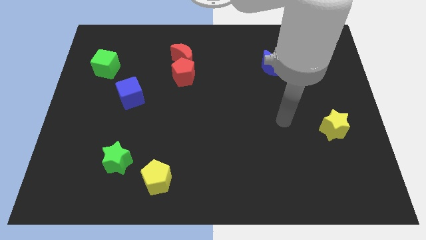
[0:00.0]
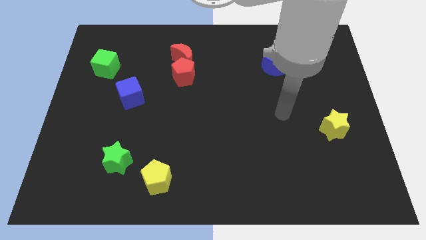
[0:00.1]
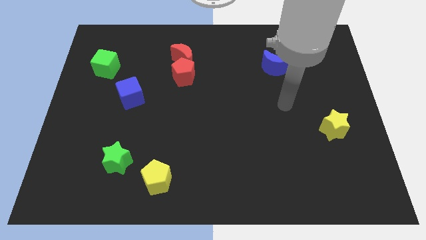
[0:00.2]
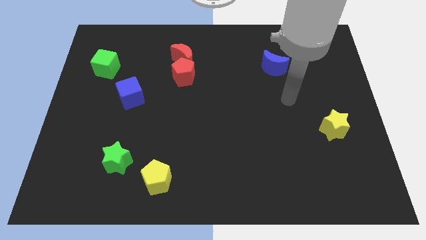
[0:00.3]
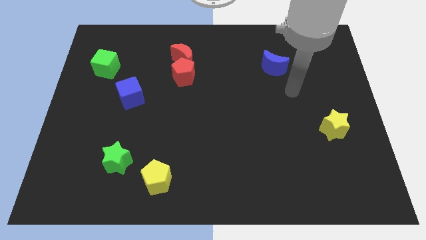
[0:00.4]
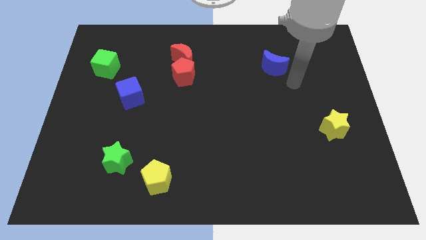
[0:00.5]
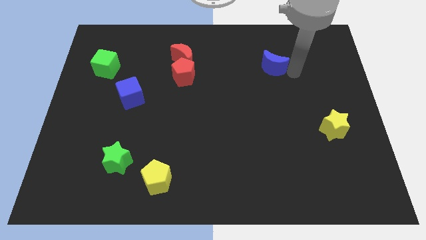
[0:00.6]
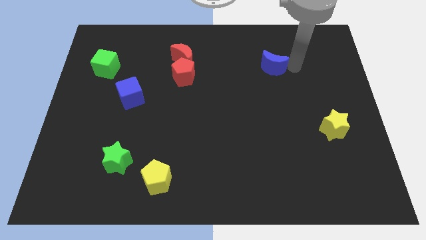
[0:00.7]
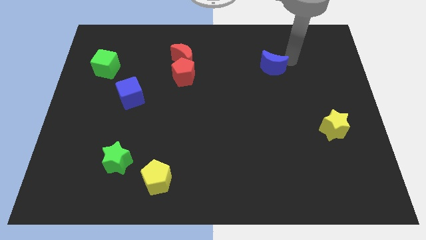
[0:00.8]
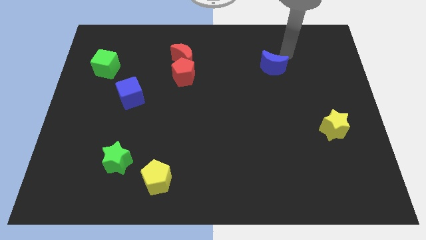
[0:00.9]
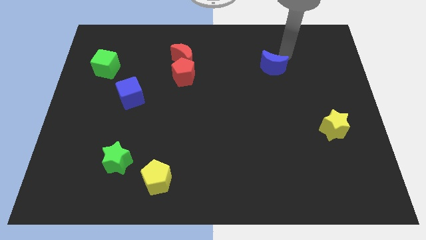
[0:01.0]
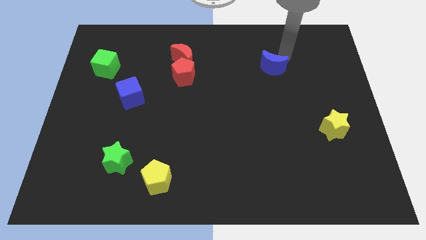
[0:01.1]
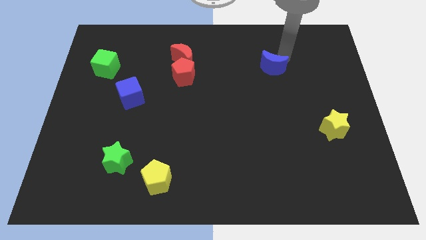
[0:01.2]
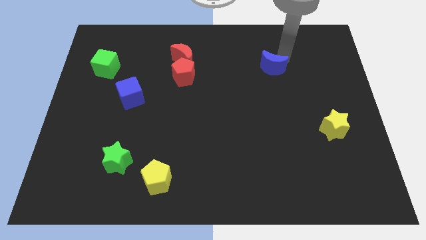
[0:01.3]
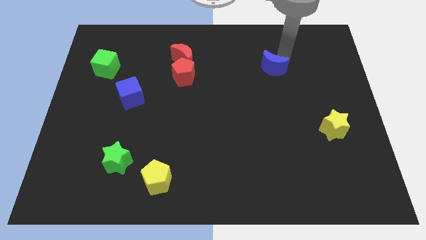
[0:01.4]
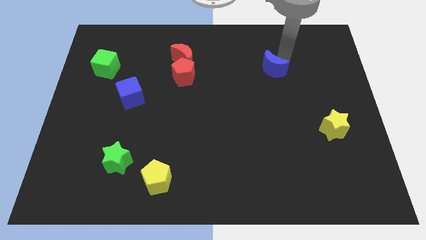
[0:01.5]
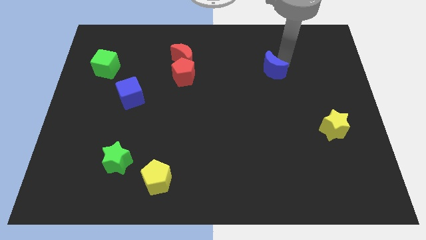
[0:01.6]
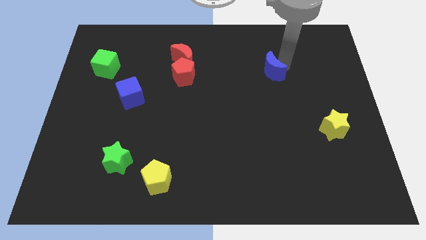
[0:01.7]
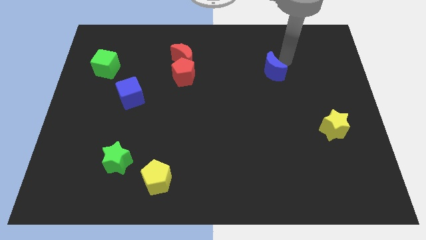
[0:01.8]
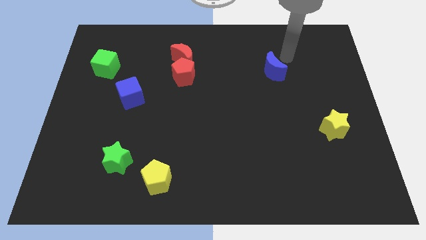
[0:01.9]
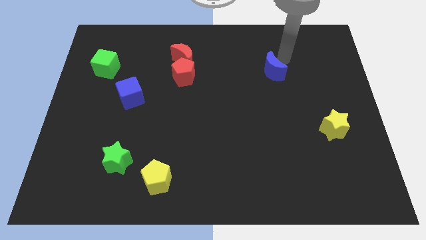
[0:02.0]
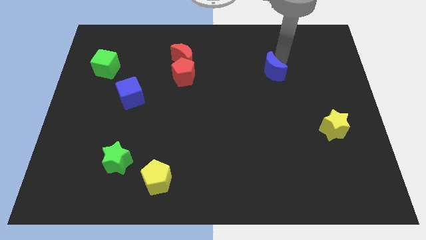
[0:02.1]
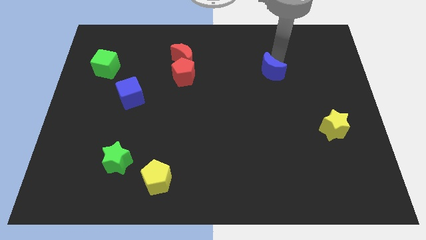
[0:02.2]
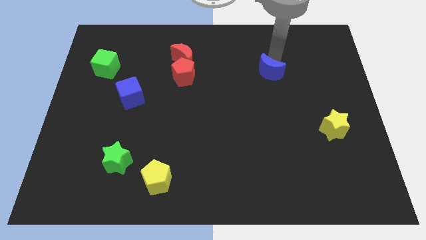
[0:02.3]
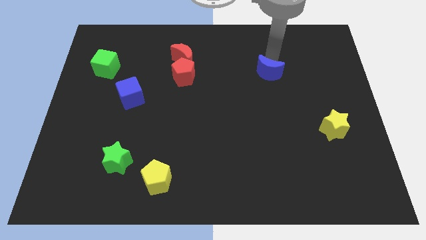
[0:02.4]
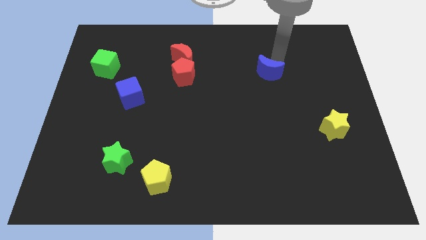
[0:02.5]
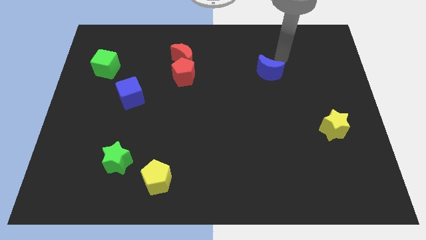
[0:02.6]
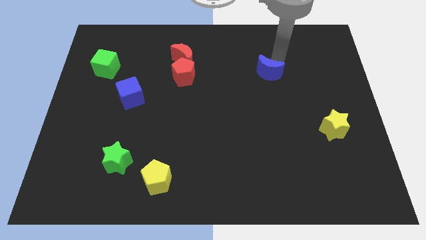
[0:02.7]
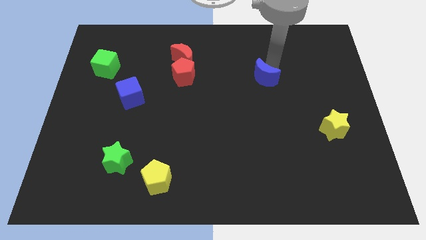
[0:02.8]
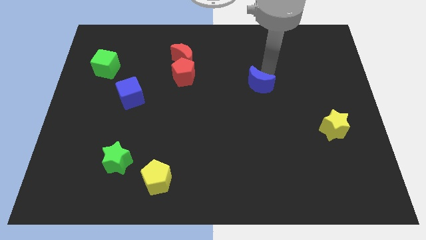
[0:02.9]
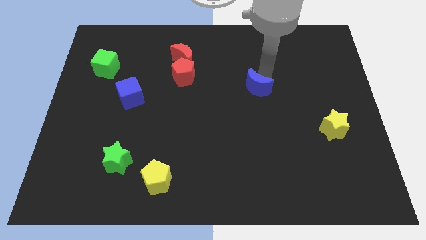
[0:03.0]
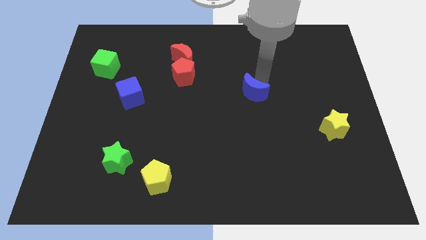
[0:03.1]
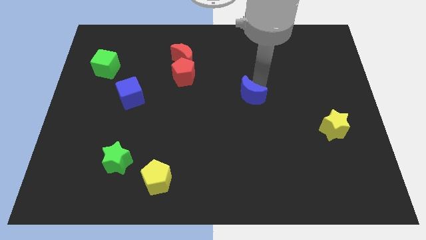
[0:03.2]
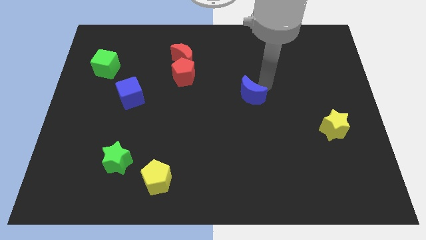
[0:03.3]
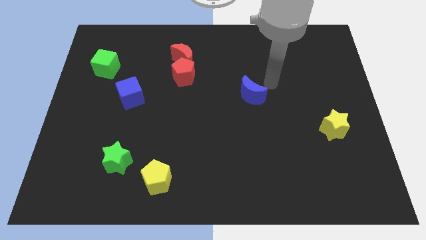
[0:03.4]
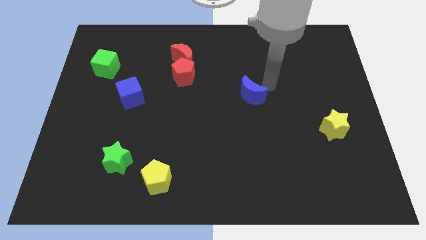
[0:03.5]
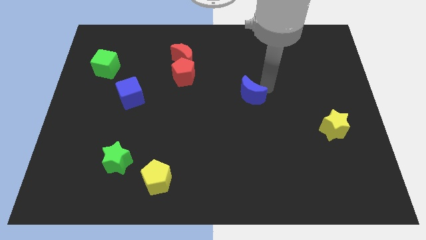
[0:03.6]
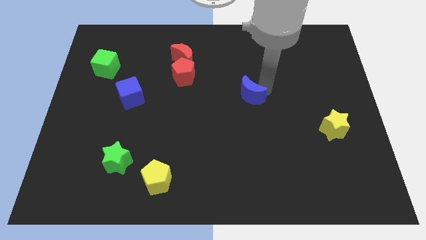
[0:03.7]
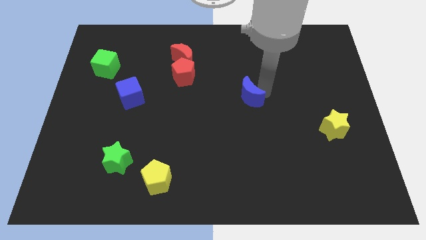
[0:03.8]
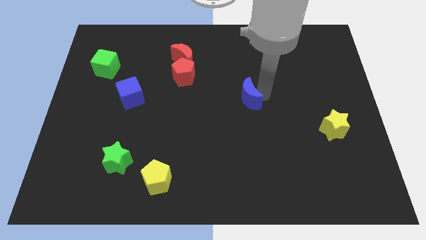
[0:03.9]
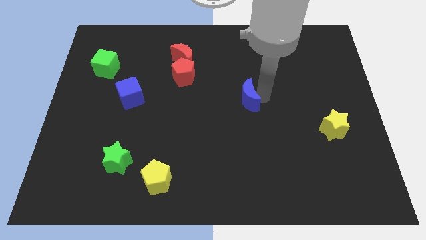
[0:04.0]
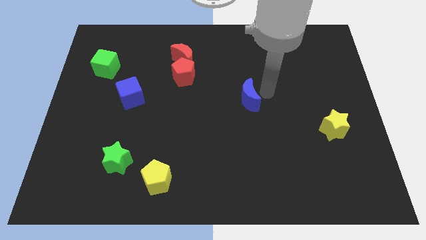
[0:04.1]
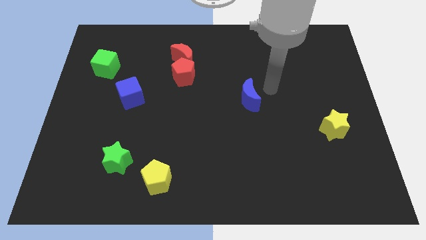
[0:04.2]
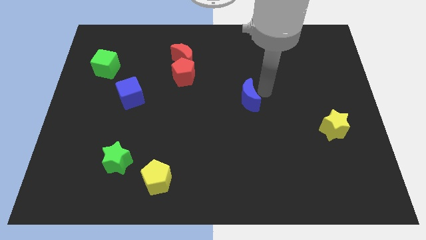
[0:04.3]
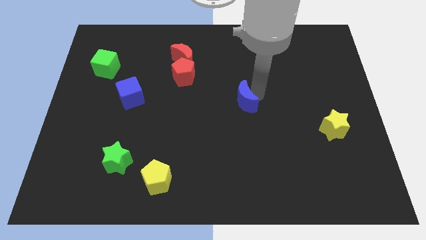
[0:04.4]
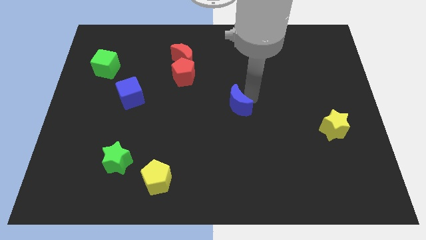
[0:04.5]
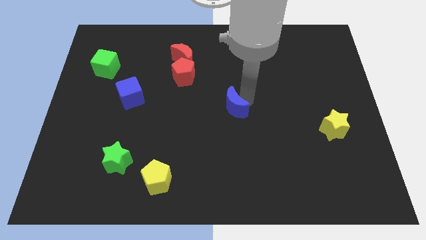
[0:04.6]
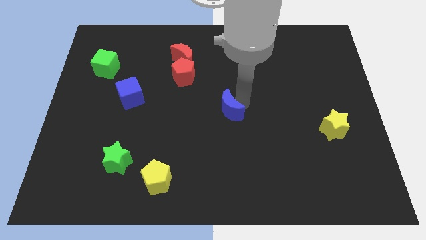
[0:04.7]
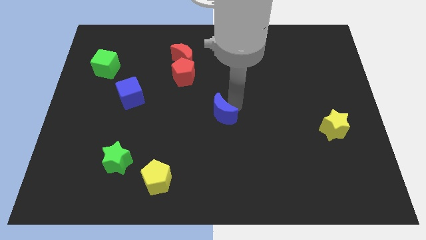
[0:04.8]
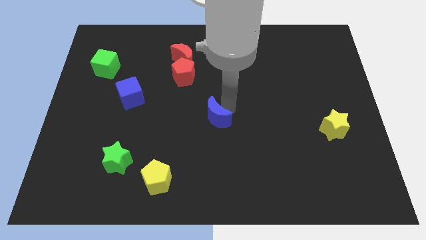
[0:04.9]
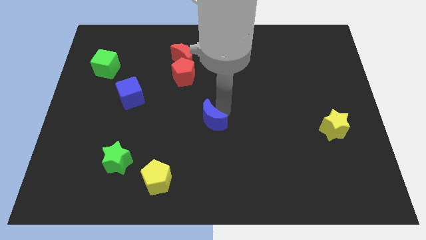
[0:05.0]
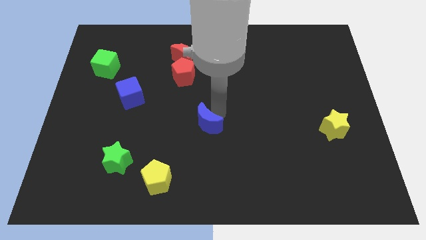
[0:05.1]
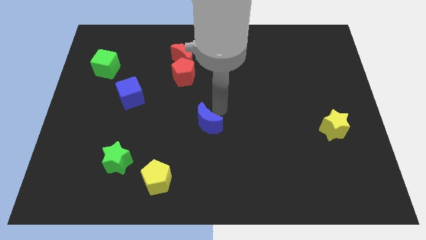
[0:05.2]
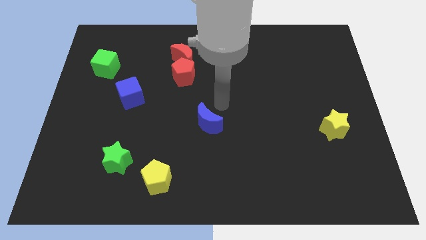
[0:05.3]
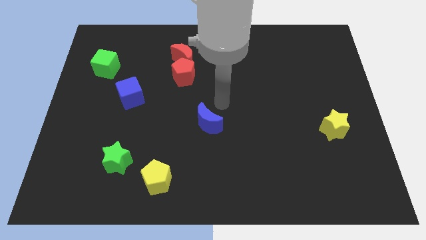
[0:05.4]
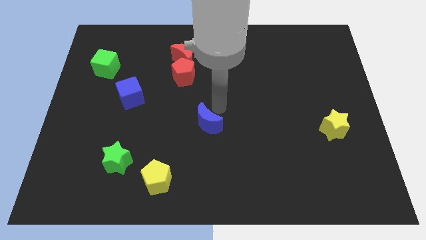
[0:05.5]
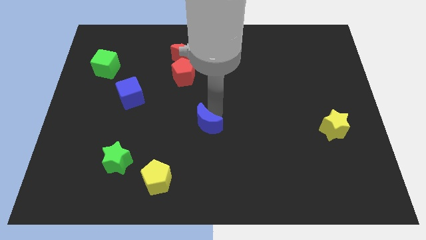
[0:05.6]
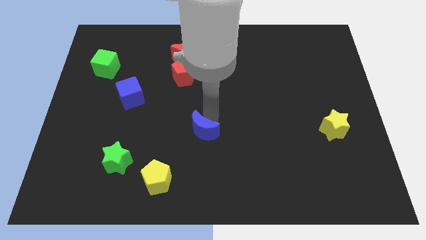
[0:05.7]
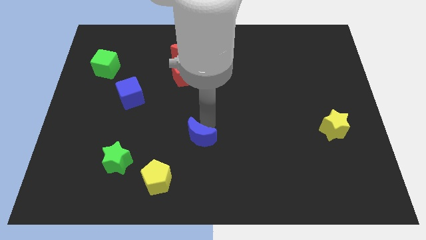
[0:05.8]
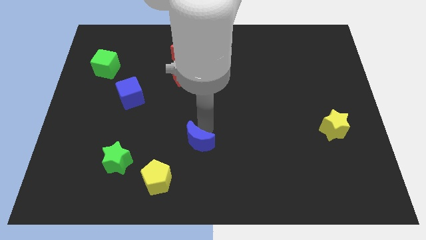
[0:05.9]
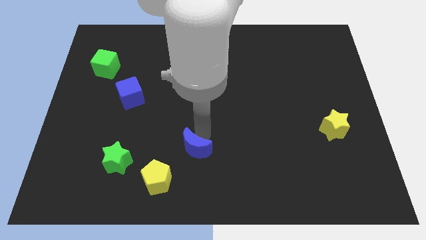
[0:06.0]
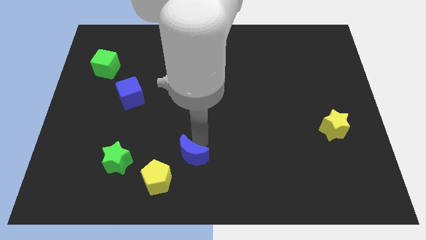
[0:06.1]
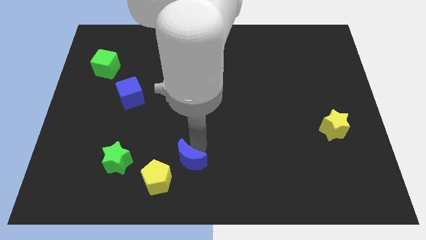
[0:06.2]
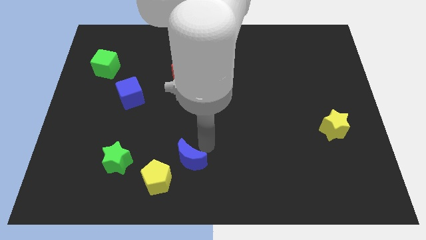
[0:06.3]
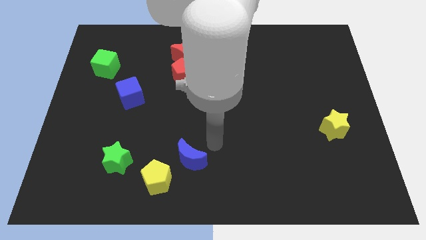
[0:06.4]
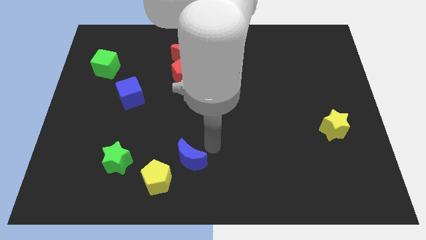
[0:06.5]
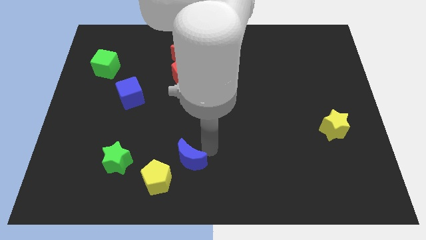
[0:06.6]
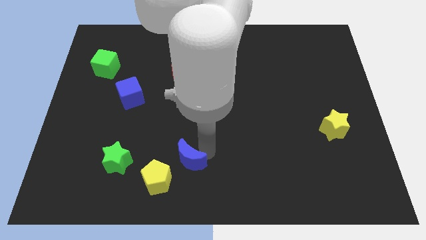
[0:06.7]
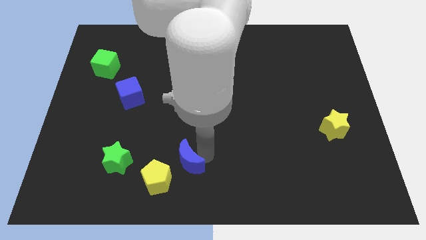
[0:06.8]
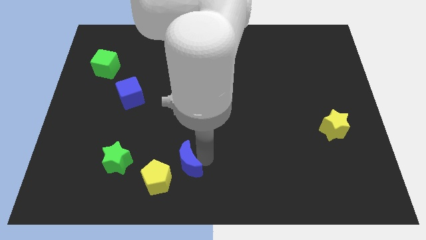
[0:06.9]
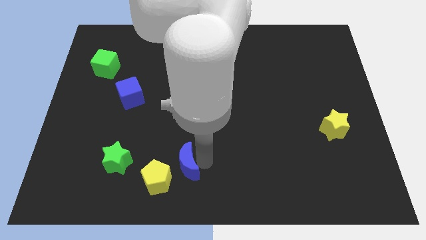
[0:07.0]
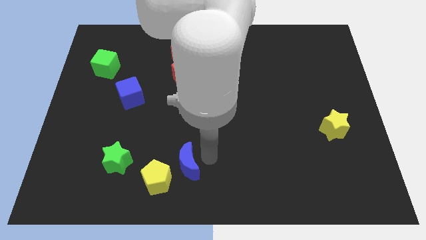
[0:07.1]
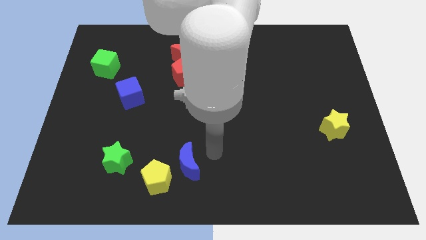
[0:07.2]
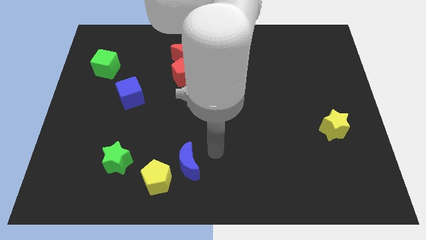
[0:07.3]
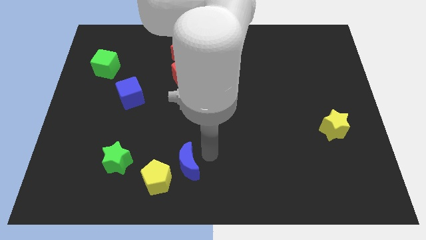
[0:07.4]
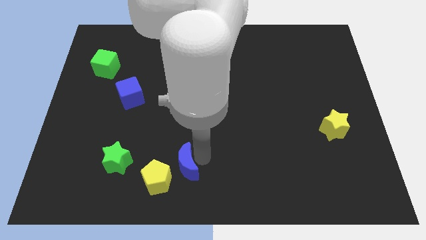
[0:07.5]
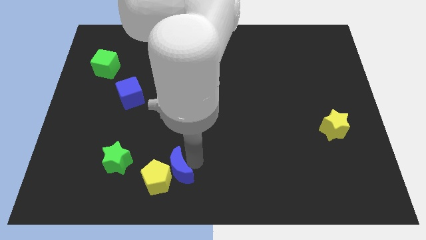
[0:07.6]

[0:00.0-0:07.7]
move the blue moon to the yellow pentagon

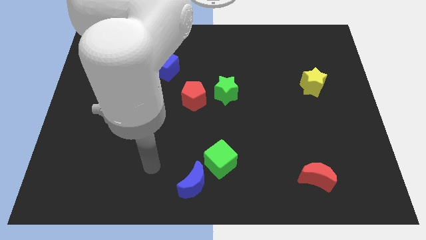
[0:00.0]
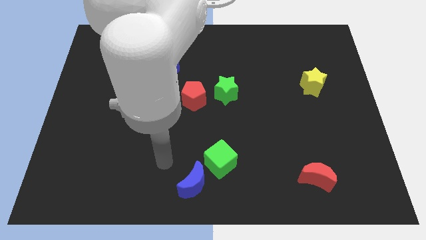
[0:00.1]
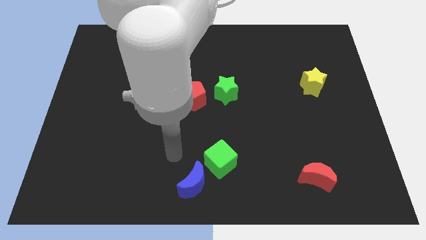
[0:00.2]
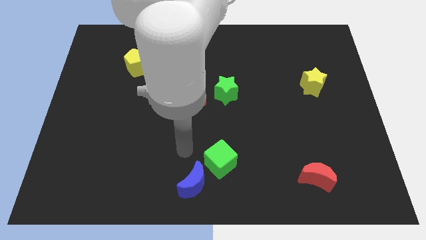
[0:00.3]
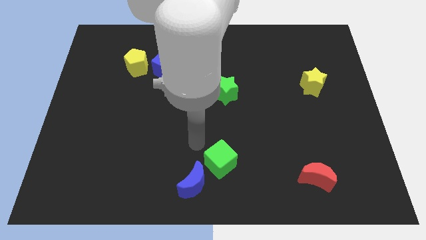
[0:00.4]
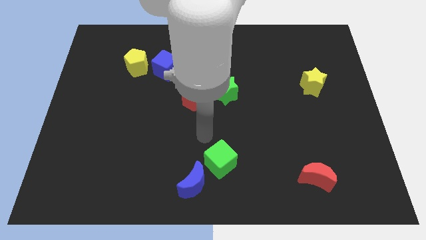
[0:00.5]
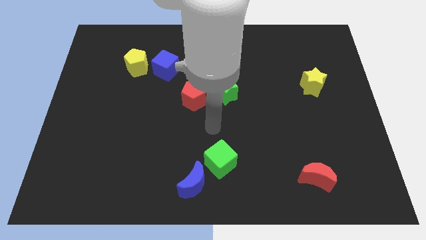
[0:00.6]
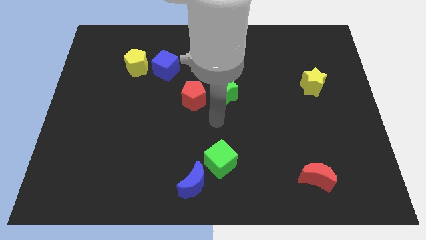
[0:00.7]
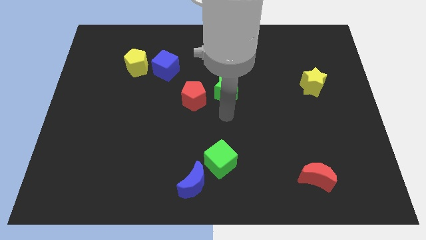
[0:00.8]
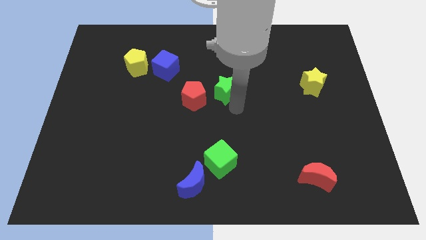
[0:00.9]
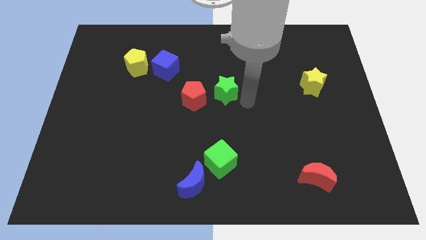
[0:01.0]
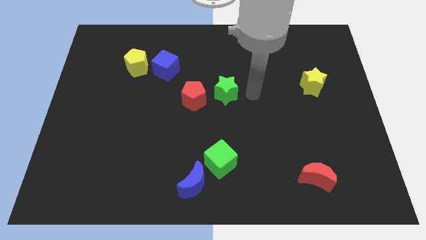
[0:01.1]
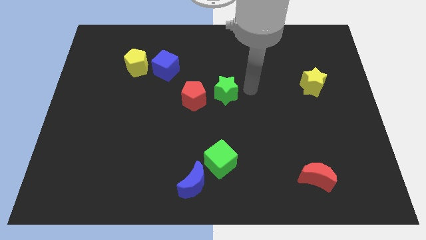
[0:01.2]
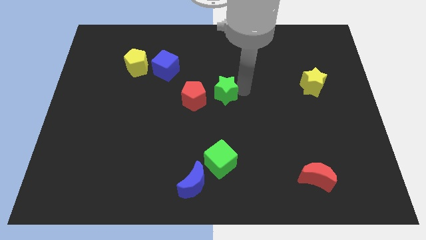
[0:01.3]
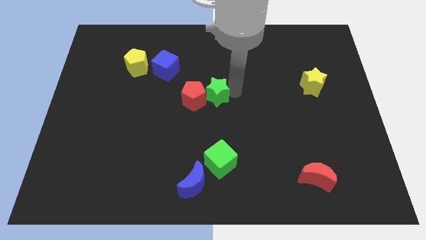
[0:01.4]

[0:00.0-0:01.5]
move the green star to the red pentagon
